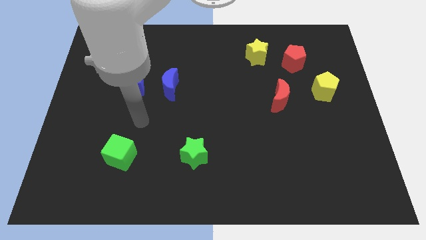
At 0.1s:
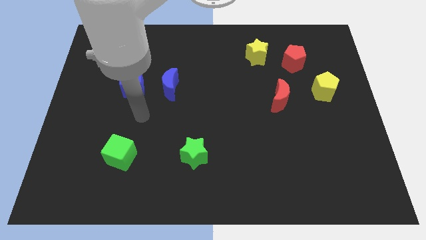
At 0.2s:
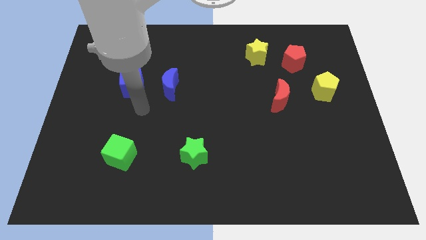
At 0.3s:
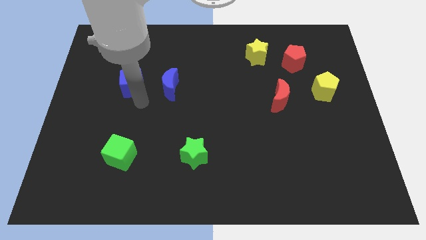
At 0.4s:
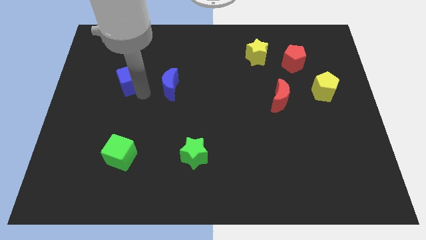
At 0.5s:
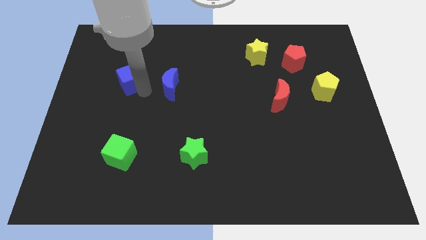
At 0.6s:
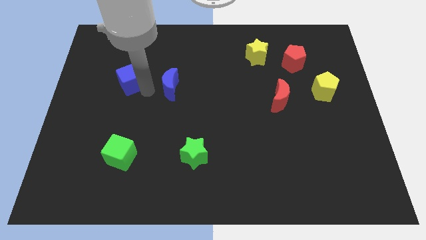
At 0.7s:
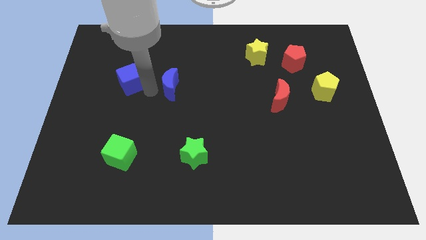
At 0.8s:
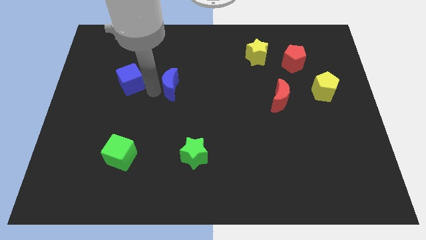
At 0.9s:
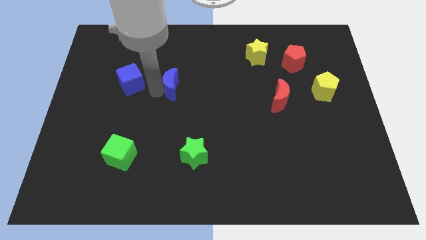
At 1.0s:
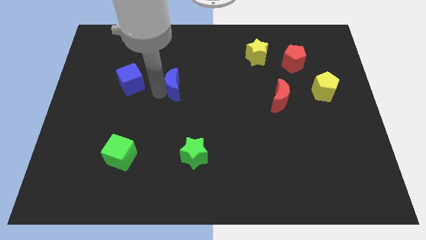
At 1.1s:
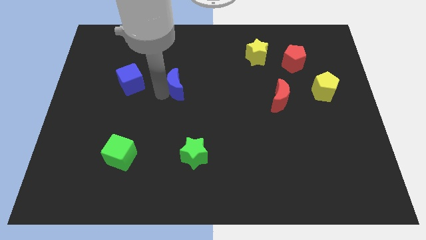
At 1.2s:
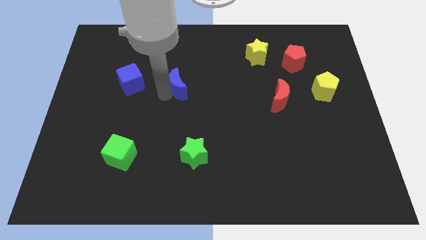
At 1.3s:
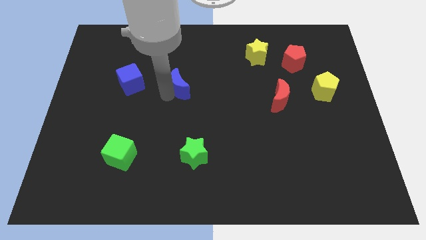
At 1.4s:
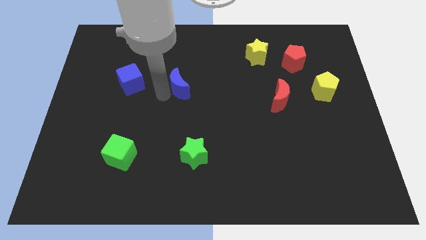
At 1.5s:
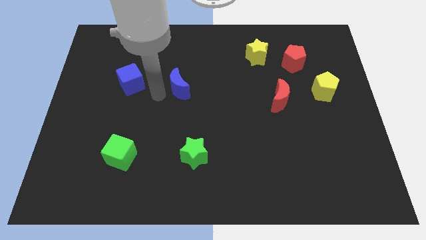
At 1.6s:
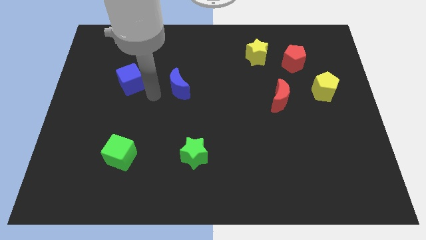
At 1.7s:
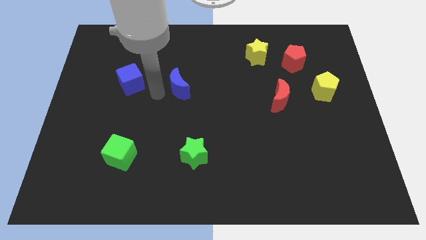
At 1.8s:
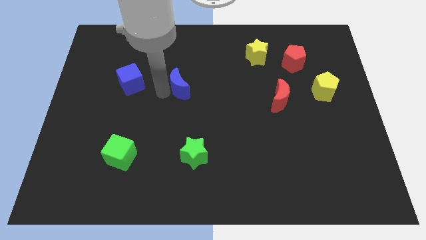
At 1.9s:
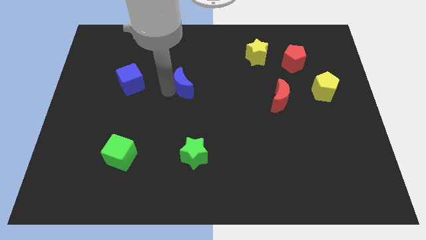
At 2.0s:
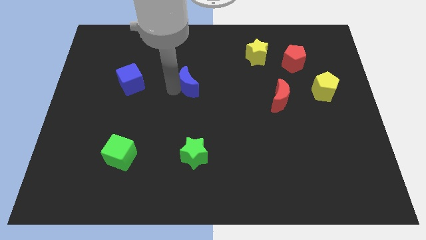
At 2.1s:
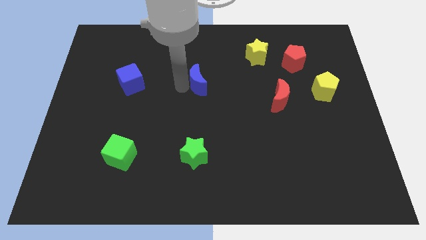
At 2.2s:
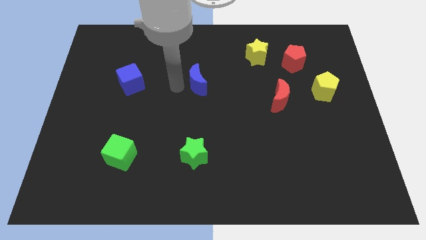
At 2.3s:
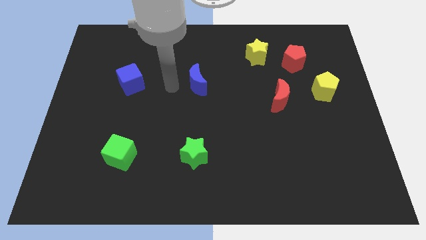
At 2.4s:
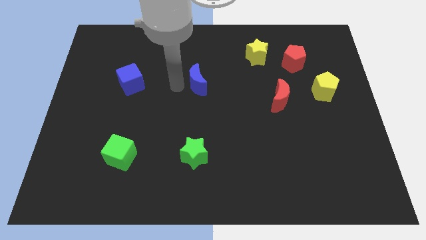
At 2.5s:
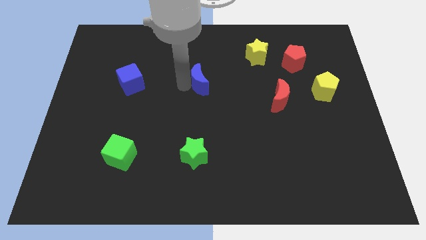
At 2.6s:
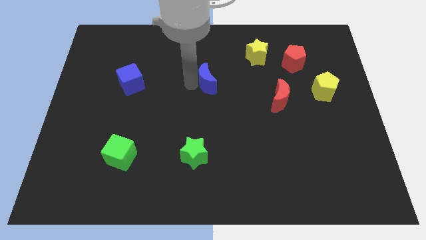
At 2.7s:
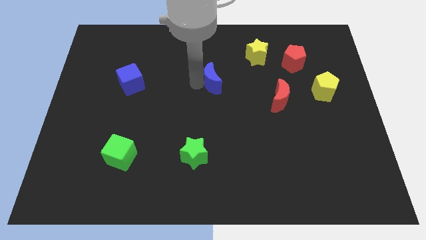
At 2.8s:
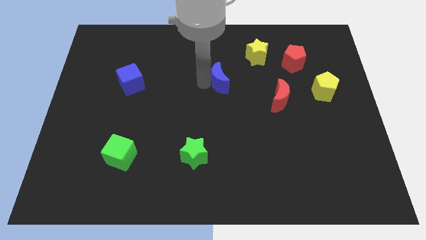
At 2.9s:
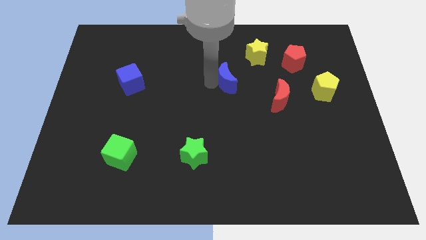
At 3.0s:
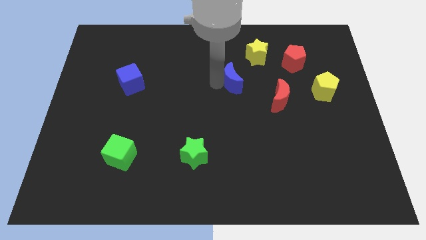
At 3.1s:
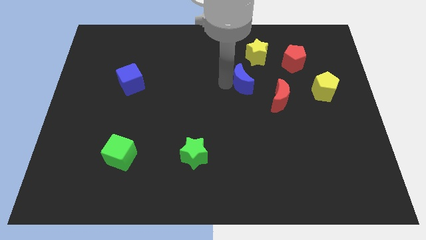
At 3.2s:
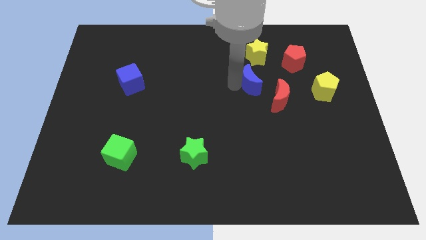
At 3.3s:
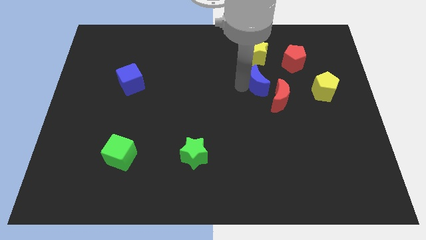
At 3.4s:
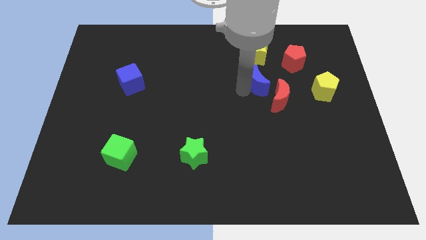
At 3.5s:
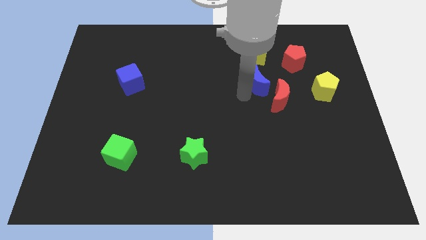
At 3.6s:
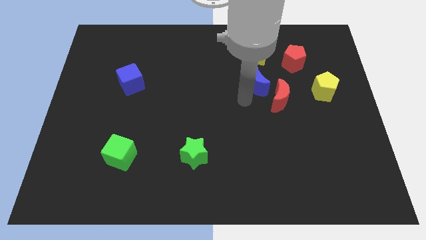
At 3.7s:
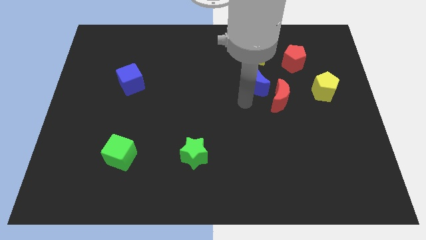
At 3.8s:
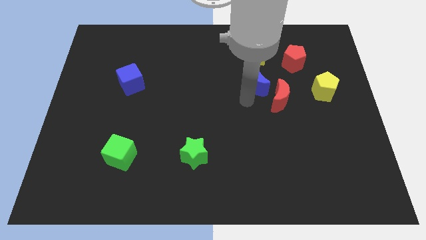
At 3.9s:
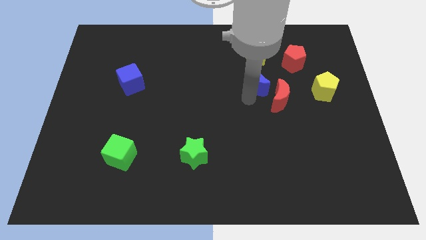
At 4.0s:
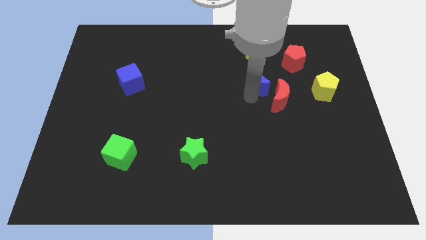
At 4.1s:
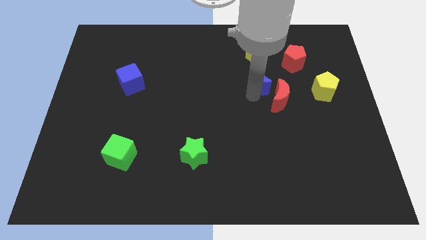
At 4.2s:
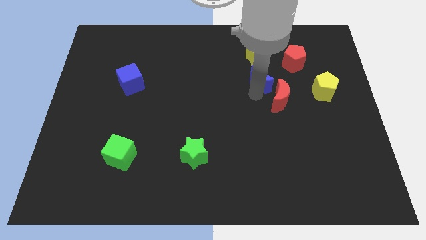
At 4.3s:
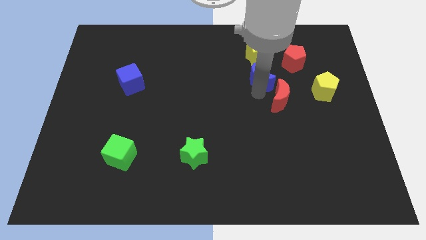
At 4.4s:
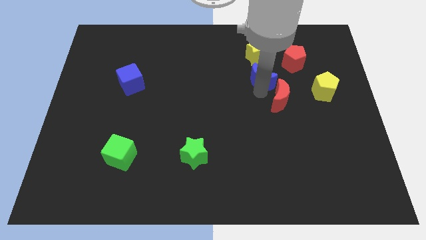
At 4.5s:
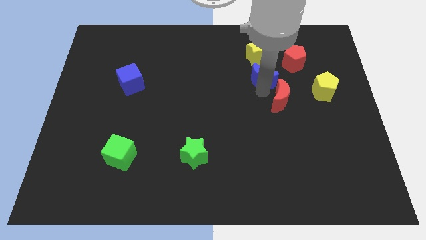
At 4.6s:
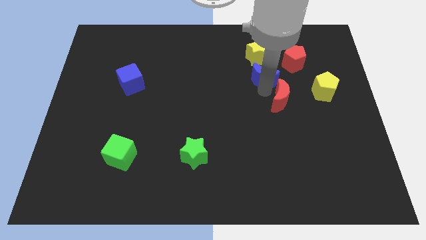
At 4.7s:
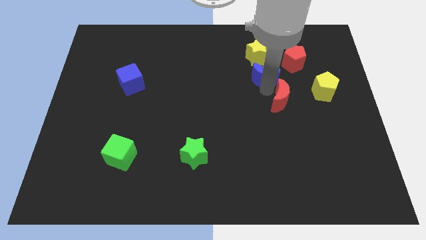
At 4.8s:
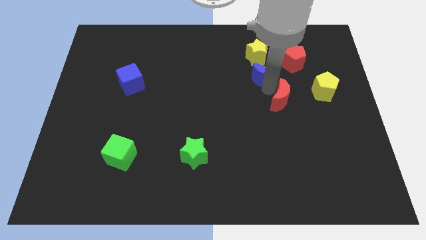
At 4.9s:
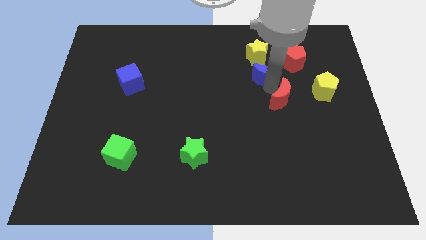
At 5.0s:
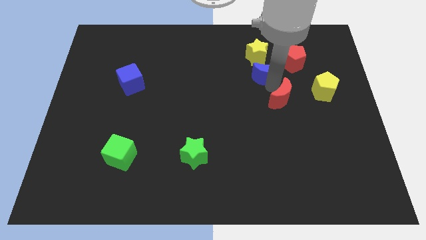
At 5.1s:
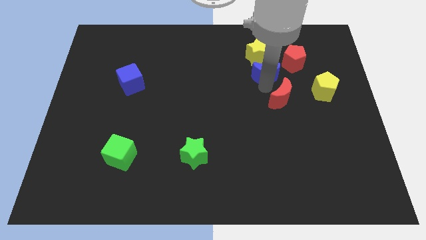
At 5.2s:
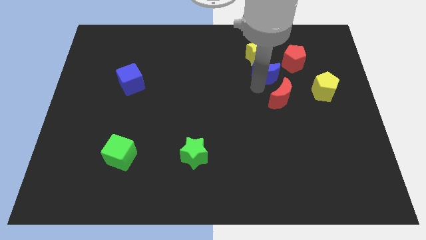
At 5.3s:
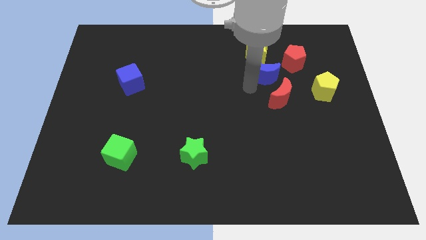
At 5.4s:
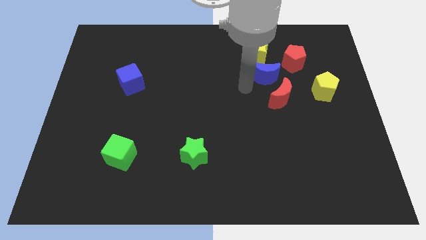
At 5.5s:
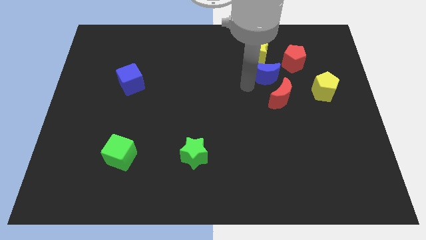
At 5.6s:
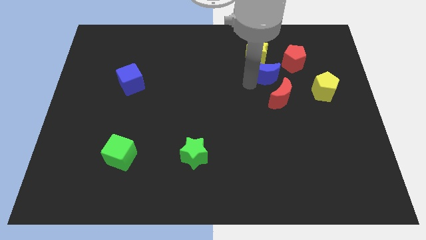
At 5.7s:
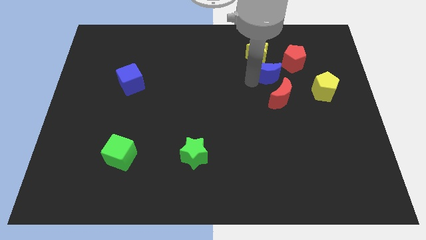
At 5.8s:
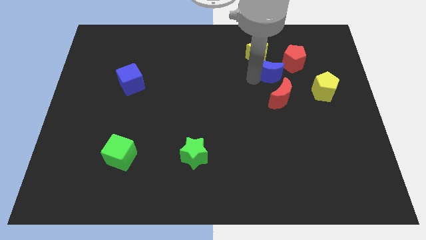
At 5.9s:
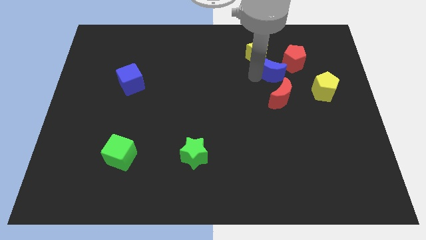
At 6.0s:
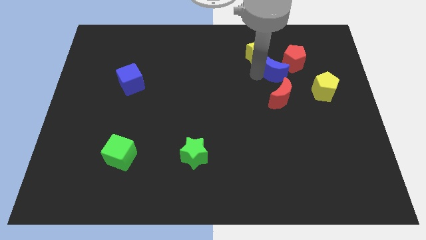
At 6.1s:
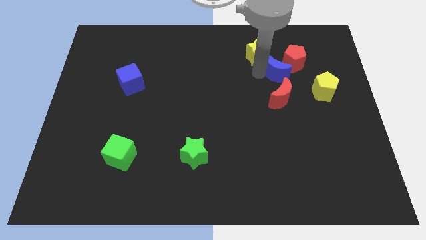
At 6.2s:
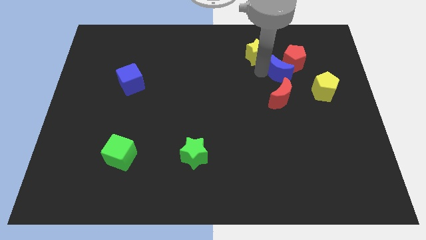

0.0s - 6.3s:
move the blue moon next to the red pentagon

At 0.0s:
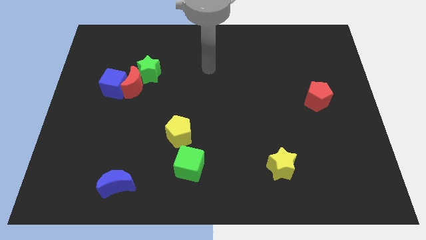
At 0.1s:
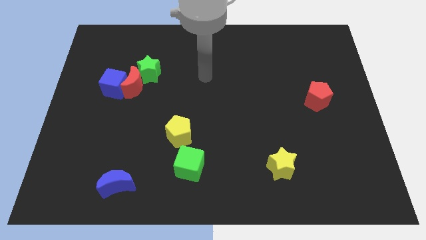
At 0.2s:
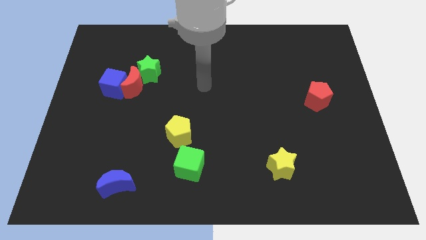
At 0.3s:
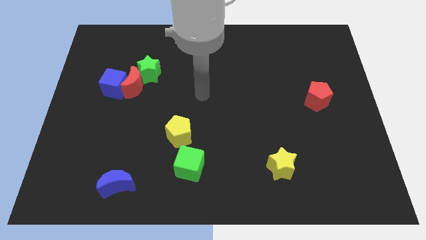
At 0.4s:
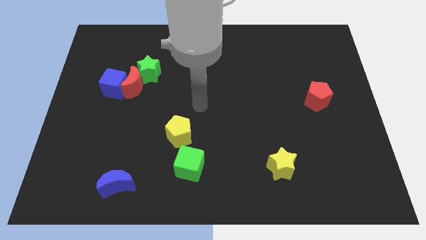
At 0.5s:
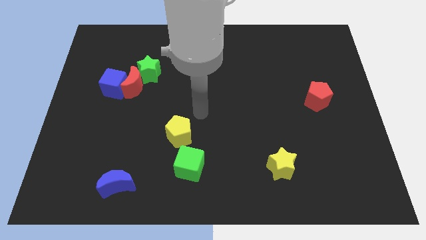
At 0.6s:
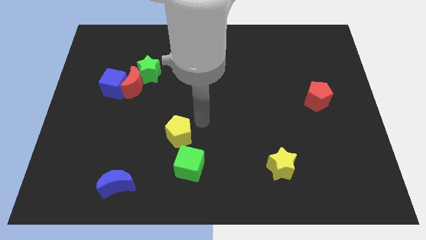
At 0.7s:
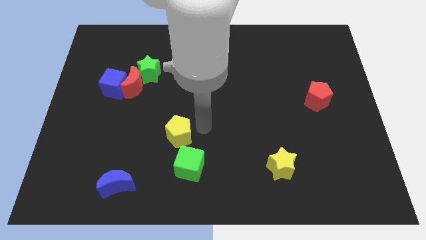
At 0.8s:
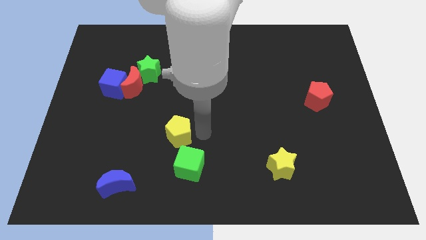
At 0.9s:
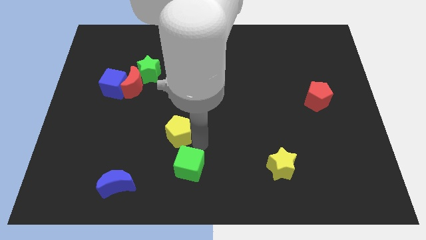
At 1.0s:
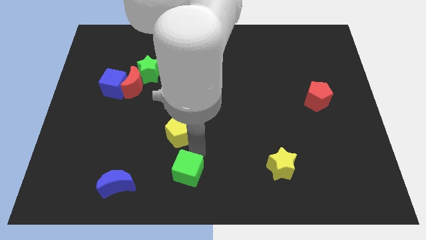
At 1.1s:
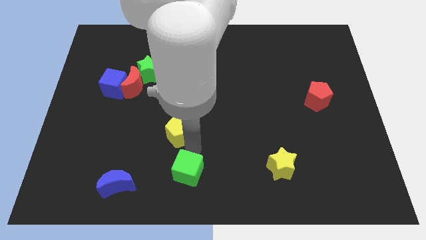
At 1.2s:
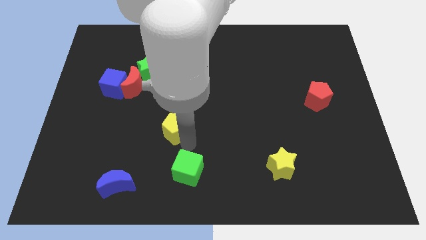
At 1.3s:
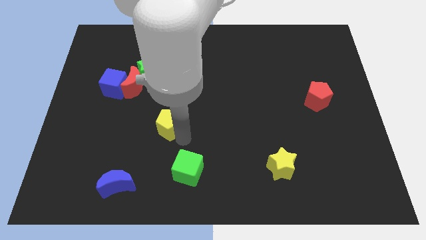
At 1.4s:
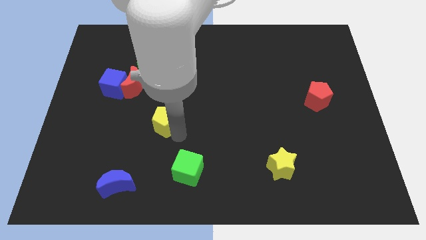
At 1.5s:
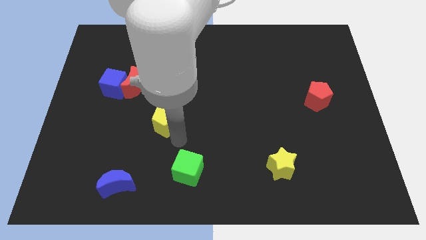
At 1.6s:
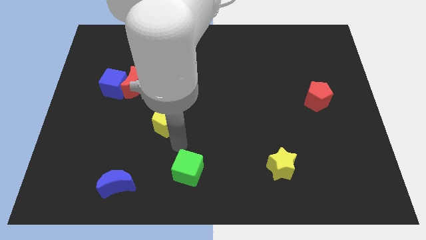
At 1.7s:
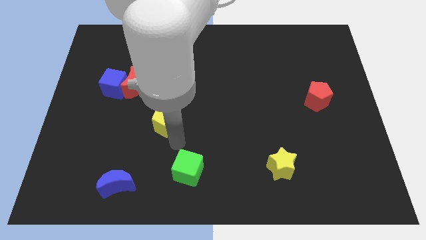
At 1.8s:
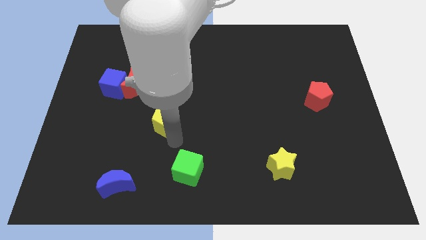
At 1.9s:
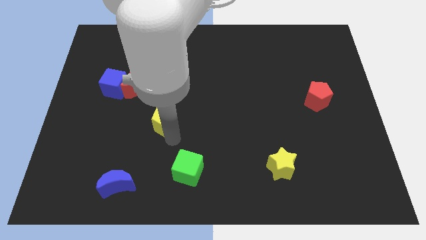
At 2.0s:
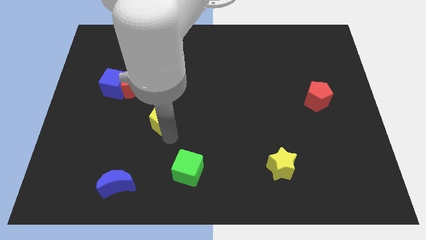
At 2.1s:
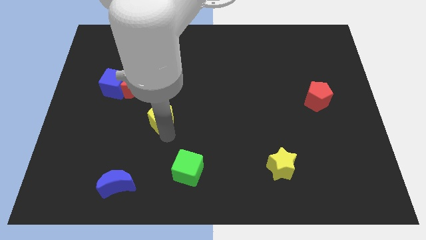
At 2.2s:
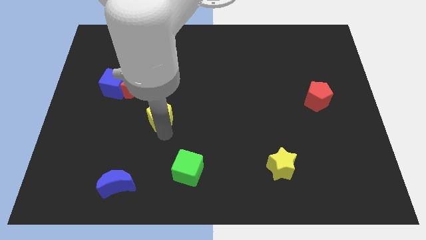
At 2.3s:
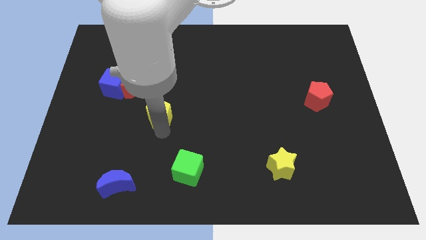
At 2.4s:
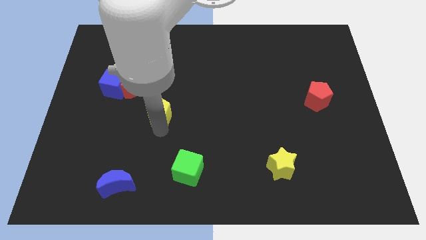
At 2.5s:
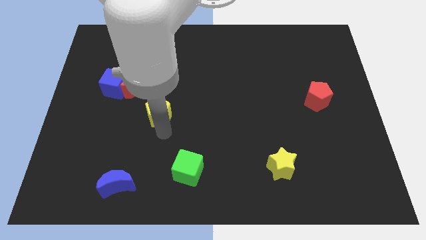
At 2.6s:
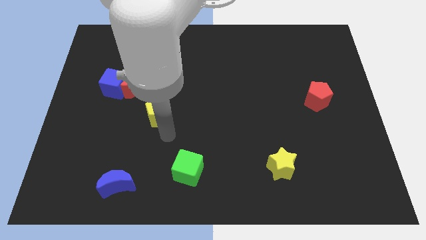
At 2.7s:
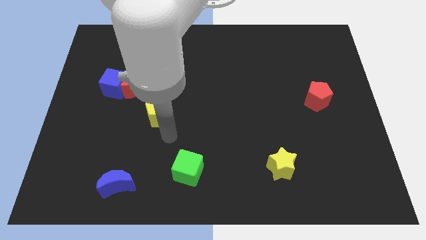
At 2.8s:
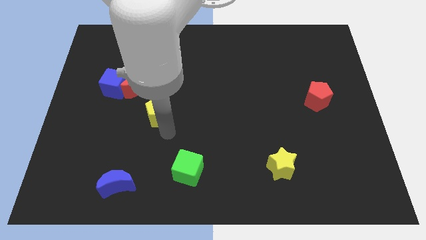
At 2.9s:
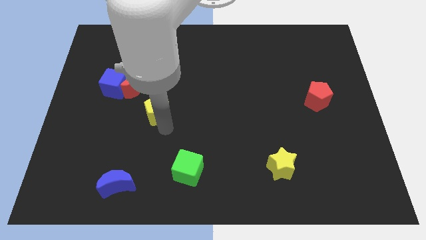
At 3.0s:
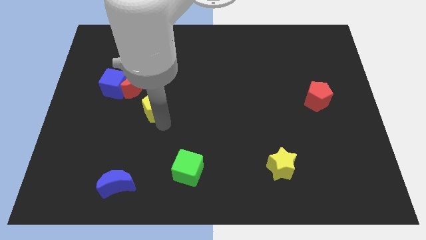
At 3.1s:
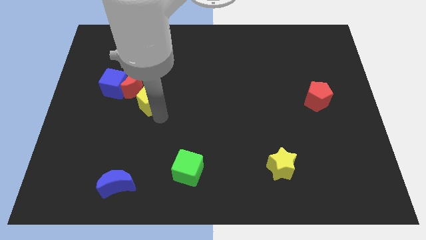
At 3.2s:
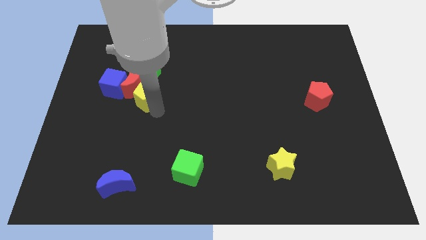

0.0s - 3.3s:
slide the yellow pentagon next to the red moon
